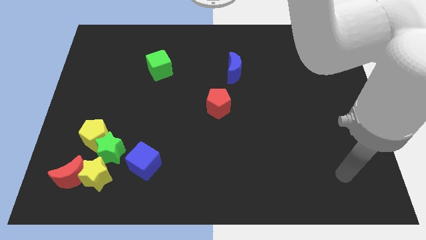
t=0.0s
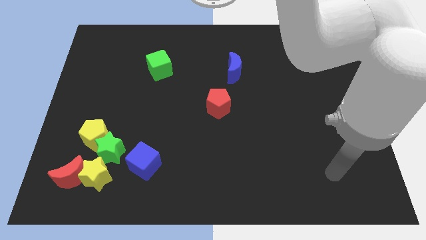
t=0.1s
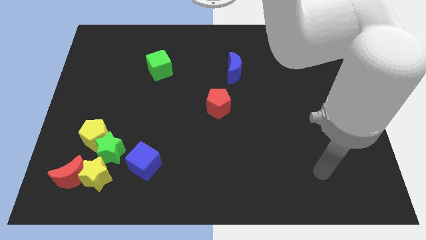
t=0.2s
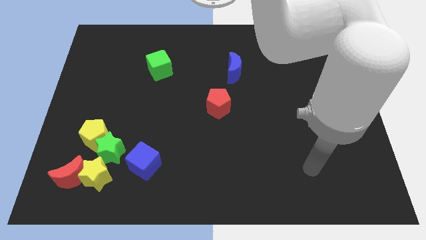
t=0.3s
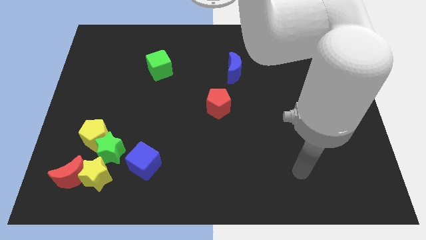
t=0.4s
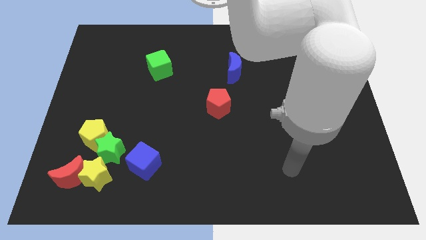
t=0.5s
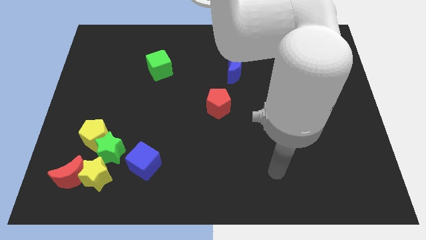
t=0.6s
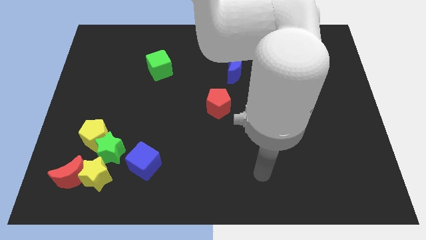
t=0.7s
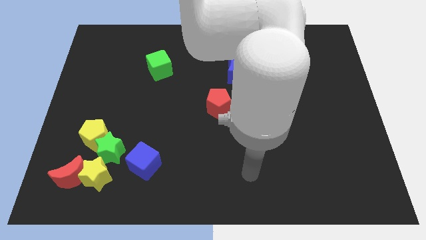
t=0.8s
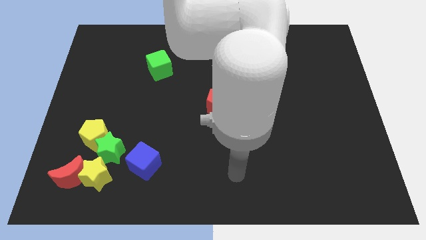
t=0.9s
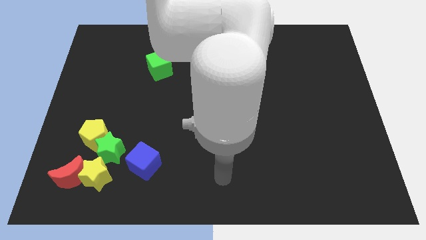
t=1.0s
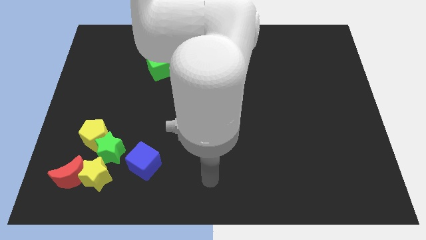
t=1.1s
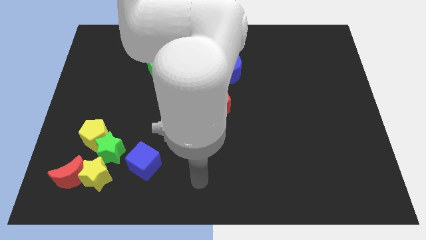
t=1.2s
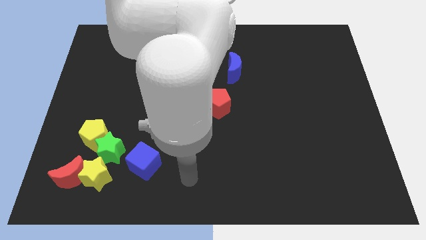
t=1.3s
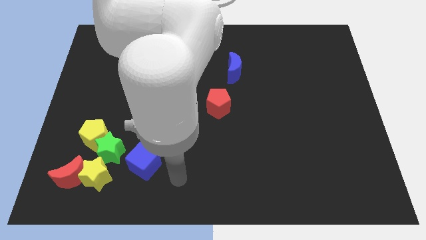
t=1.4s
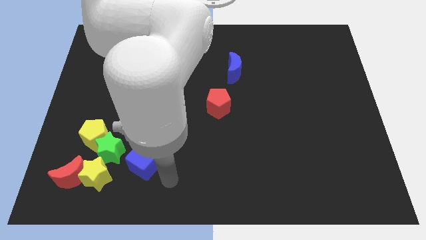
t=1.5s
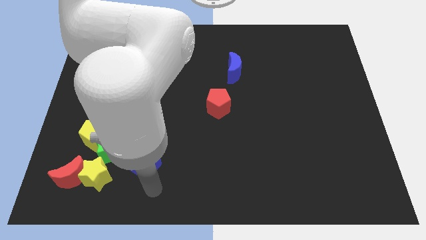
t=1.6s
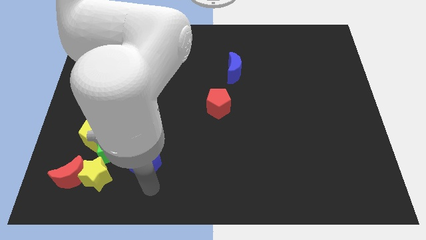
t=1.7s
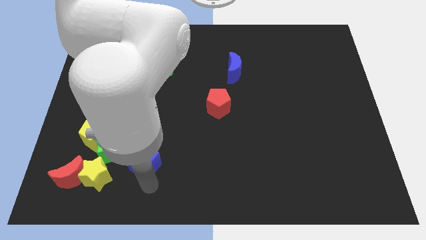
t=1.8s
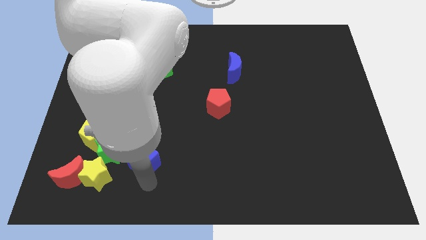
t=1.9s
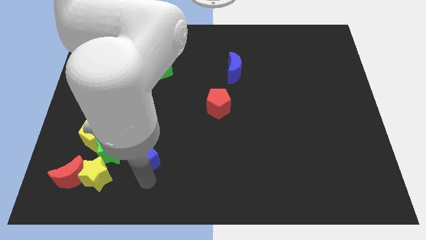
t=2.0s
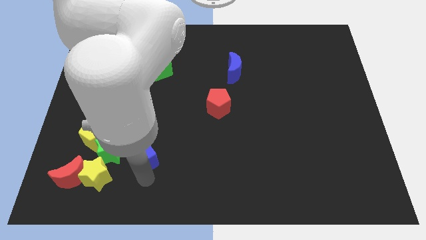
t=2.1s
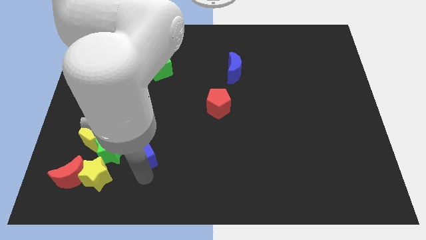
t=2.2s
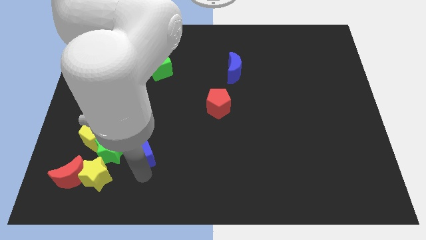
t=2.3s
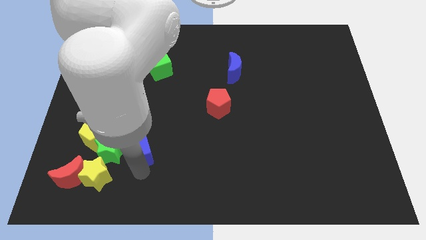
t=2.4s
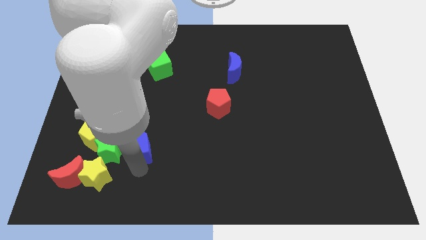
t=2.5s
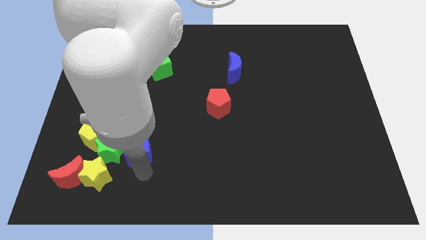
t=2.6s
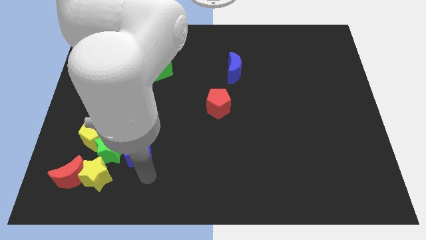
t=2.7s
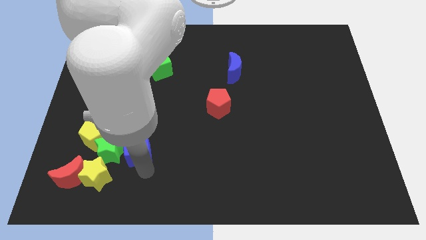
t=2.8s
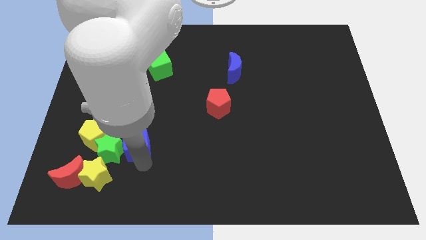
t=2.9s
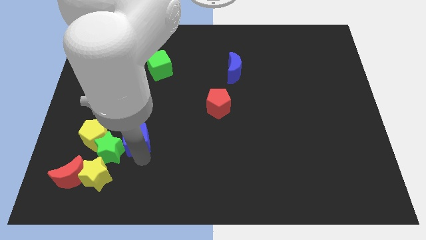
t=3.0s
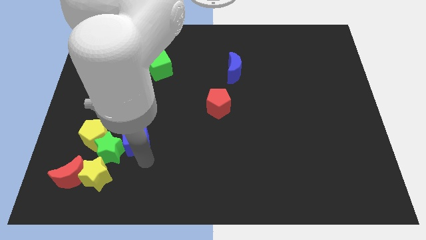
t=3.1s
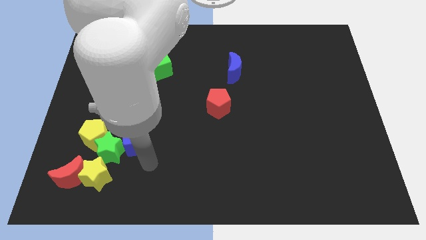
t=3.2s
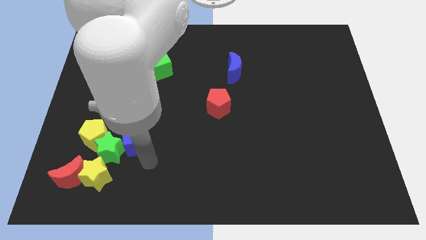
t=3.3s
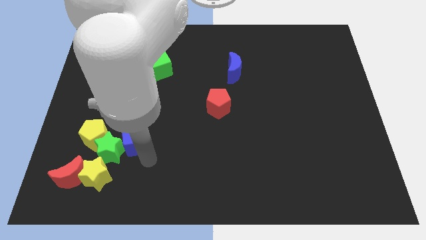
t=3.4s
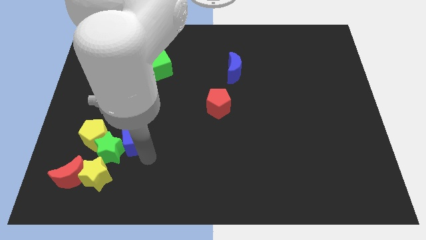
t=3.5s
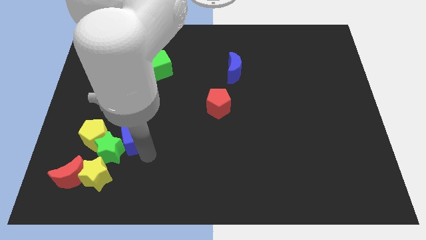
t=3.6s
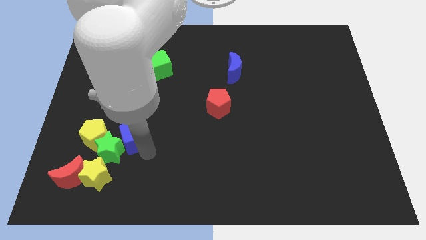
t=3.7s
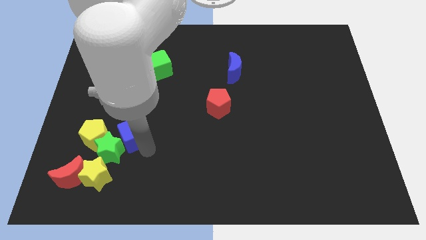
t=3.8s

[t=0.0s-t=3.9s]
move the blue cube a bit upwards and then to the left

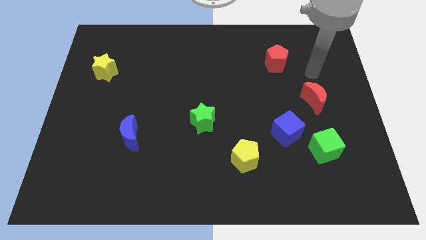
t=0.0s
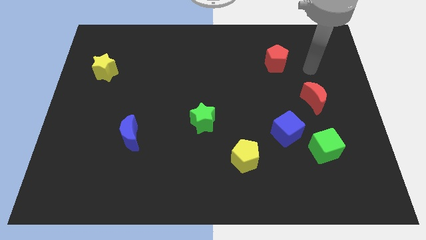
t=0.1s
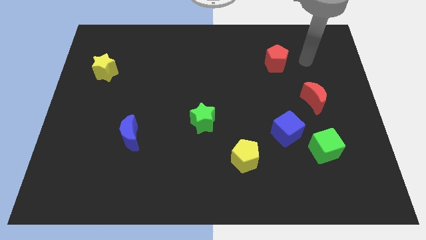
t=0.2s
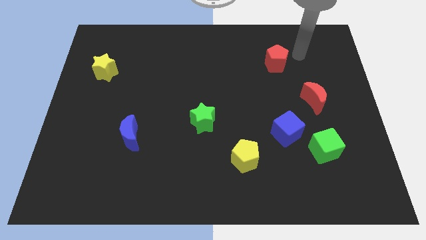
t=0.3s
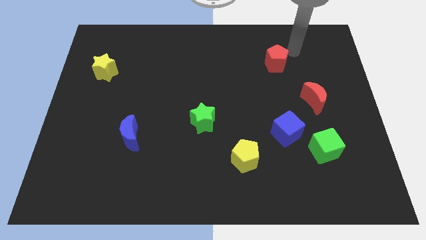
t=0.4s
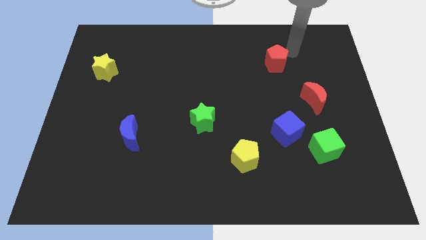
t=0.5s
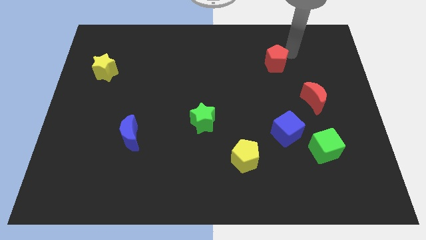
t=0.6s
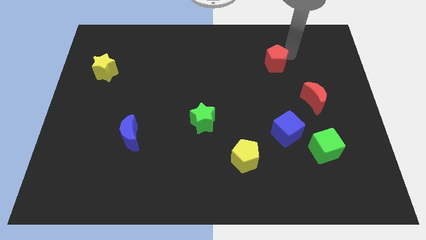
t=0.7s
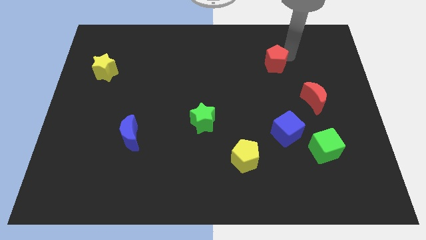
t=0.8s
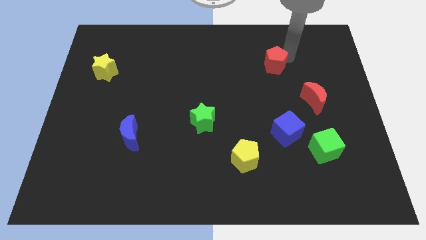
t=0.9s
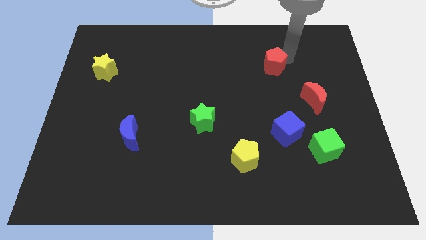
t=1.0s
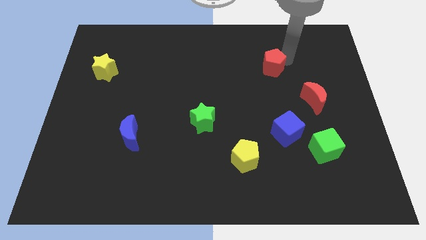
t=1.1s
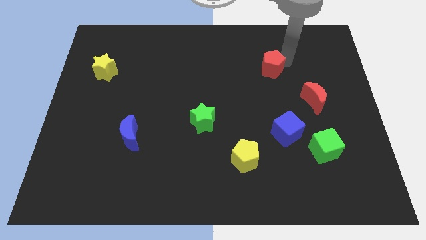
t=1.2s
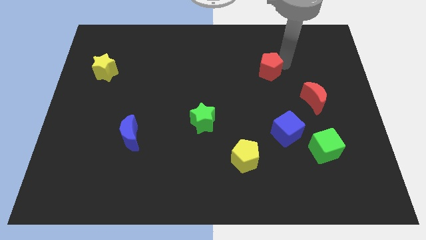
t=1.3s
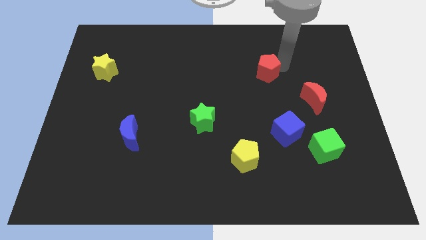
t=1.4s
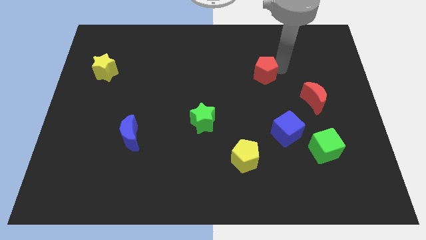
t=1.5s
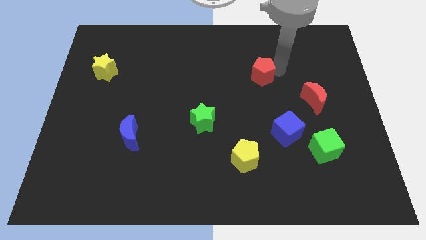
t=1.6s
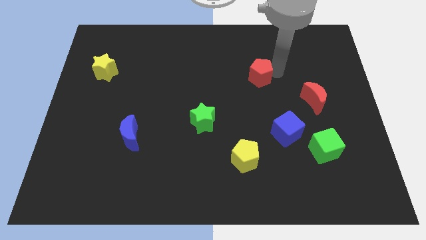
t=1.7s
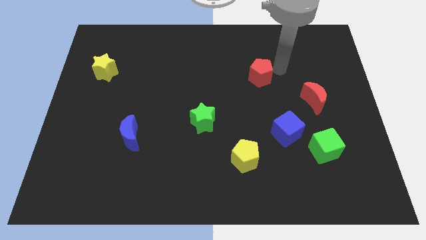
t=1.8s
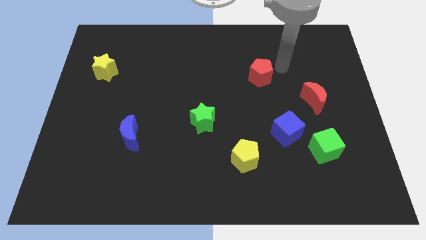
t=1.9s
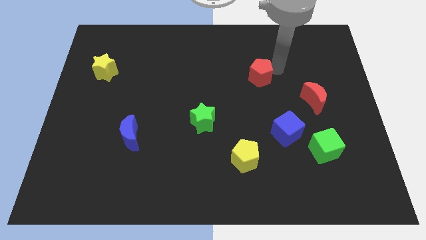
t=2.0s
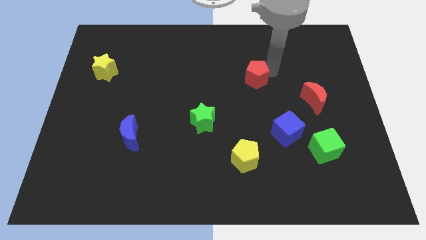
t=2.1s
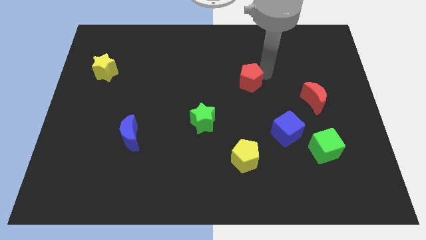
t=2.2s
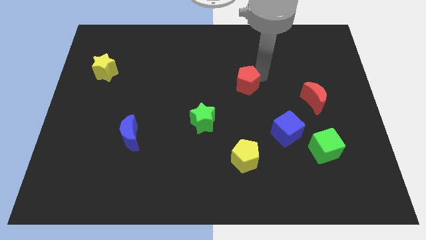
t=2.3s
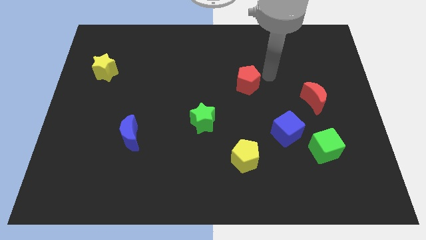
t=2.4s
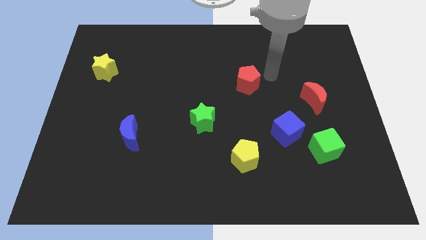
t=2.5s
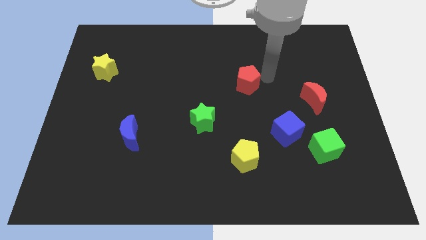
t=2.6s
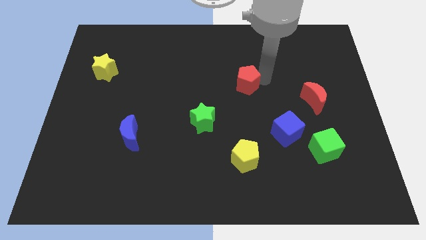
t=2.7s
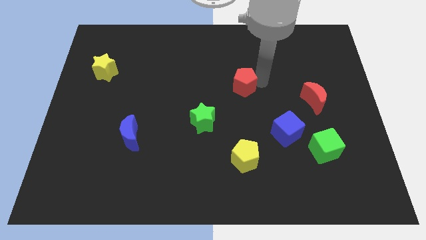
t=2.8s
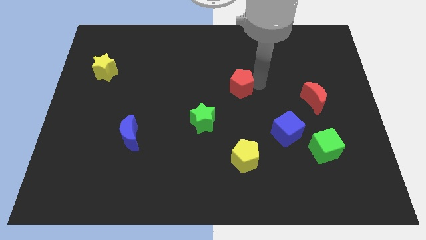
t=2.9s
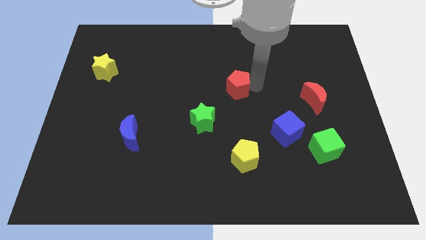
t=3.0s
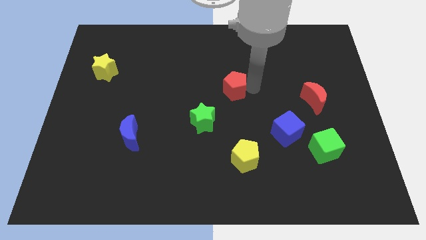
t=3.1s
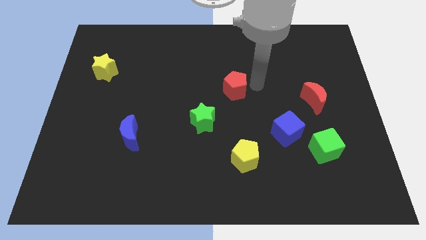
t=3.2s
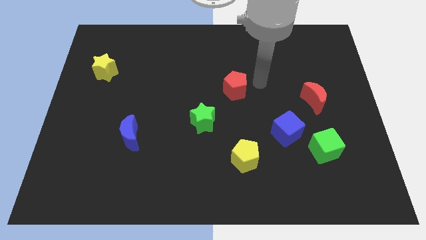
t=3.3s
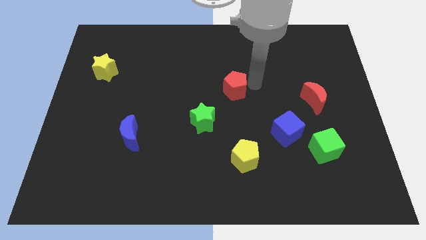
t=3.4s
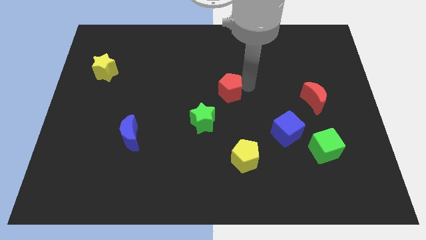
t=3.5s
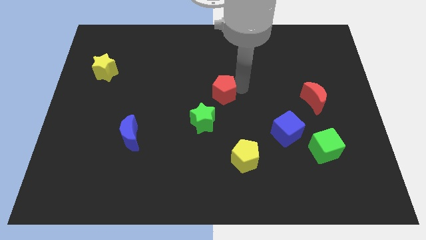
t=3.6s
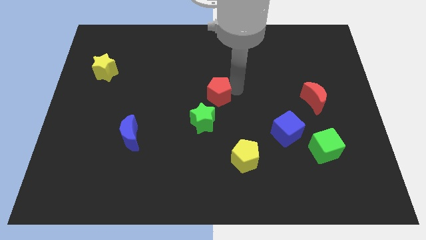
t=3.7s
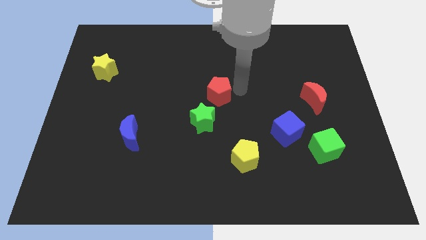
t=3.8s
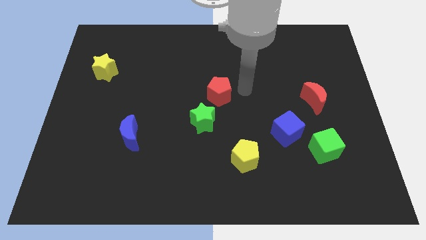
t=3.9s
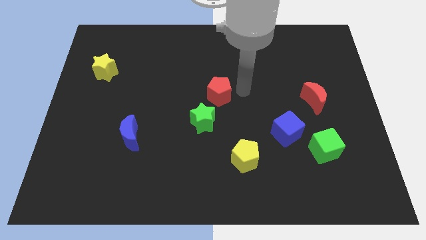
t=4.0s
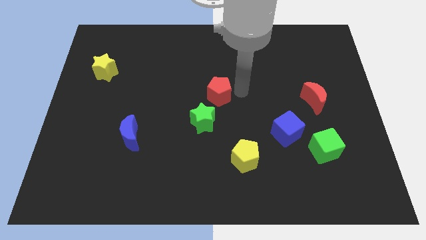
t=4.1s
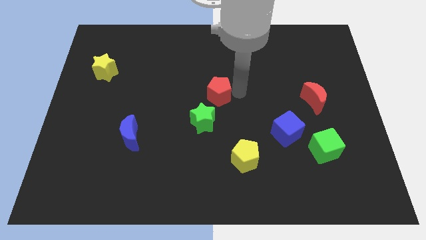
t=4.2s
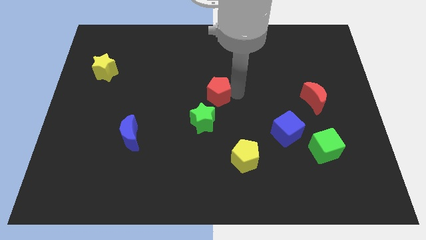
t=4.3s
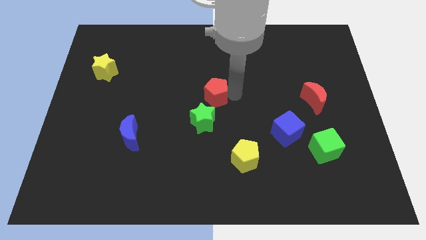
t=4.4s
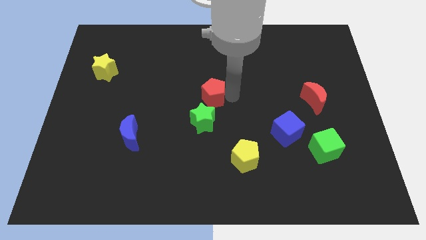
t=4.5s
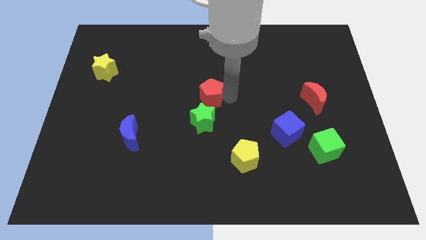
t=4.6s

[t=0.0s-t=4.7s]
move the red pentagon diagonally downwards and left
